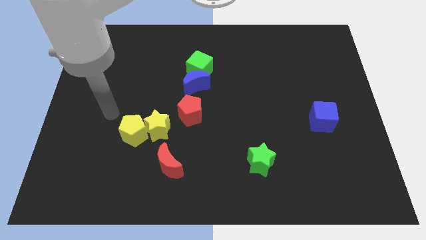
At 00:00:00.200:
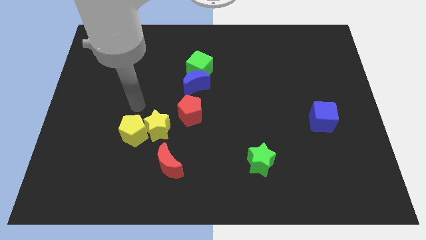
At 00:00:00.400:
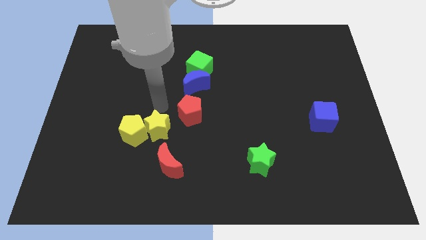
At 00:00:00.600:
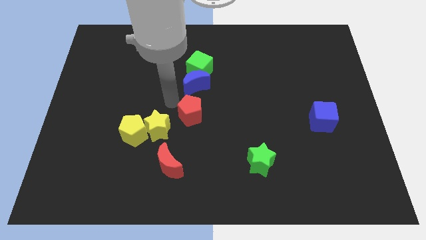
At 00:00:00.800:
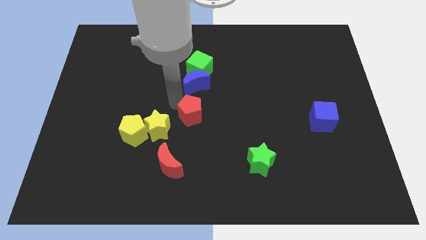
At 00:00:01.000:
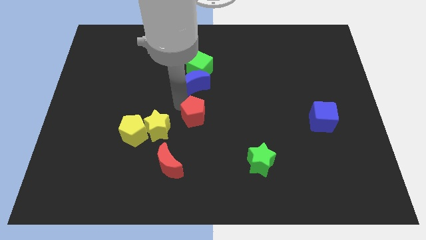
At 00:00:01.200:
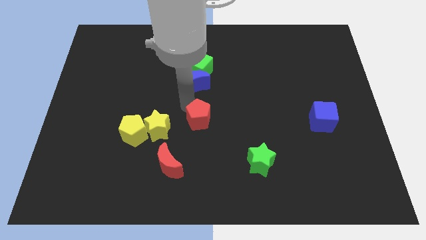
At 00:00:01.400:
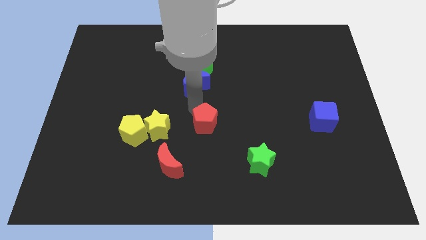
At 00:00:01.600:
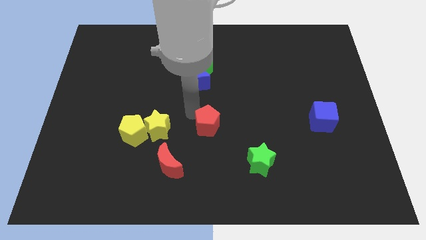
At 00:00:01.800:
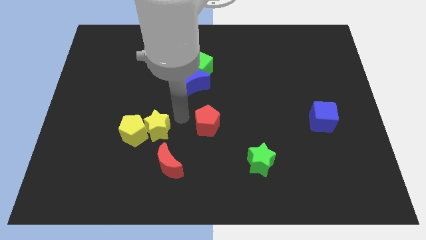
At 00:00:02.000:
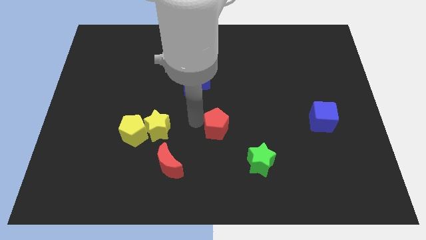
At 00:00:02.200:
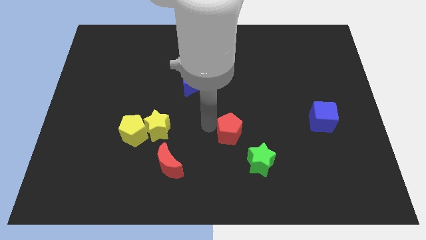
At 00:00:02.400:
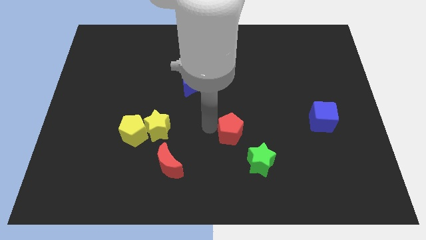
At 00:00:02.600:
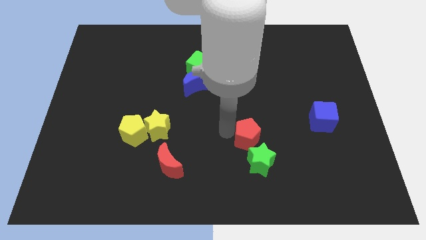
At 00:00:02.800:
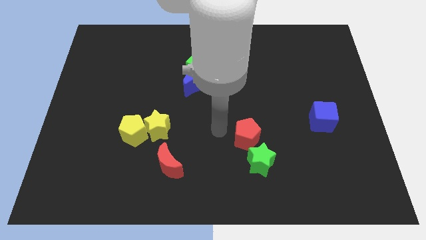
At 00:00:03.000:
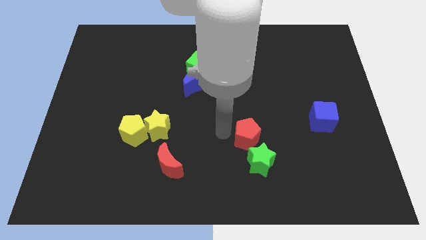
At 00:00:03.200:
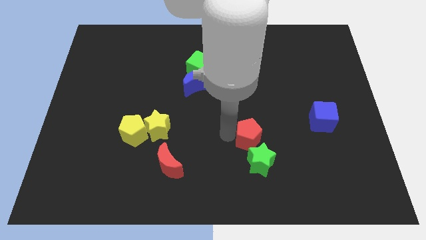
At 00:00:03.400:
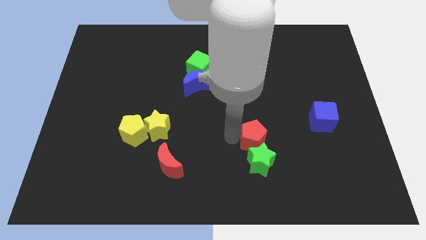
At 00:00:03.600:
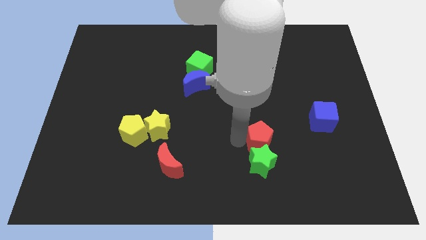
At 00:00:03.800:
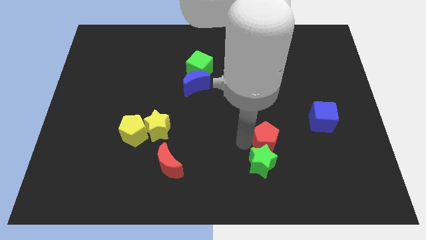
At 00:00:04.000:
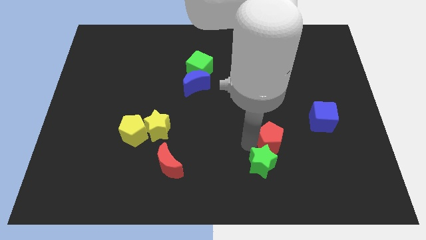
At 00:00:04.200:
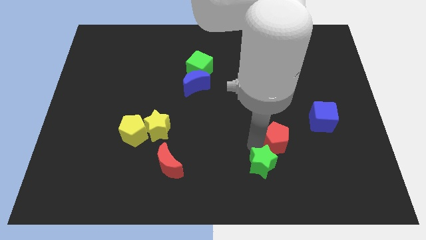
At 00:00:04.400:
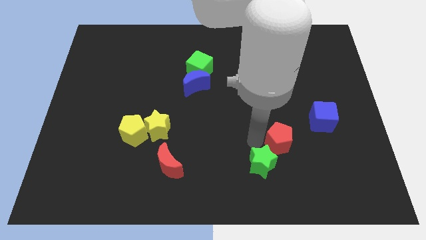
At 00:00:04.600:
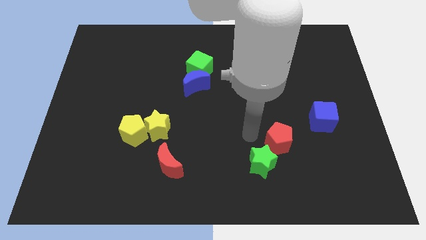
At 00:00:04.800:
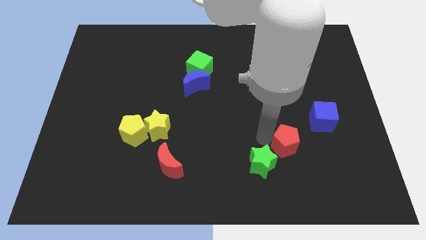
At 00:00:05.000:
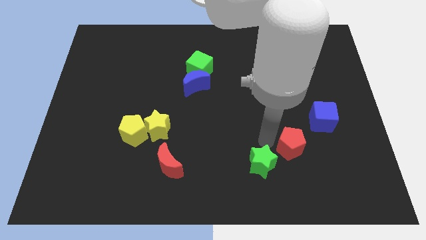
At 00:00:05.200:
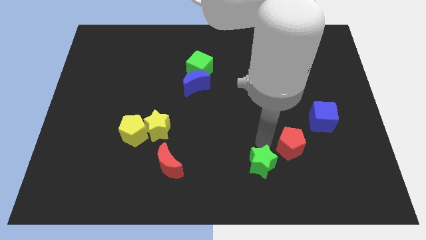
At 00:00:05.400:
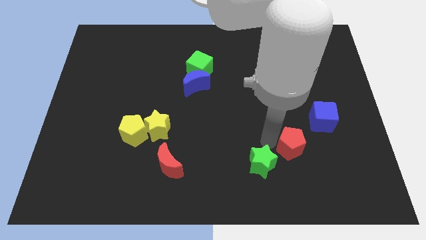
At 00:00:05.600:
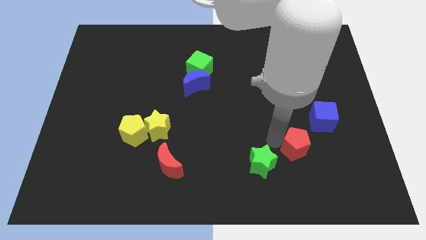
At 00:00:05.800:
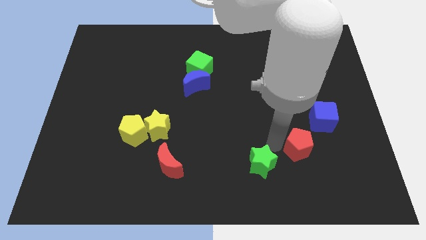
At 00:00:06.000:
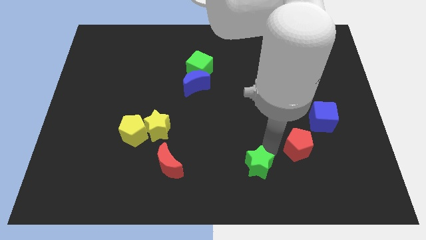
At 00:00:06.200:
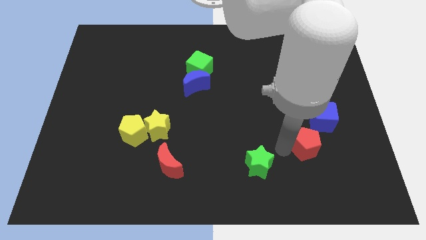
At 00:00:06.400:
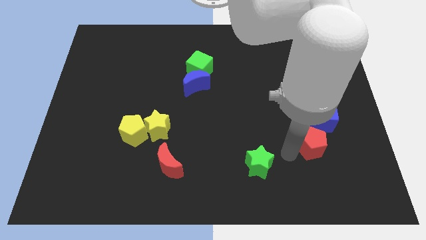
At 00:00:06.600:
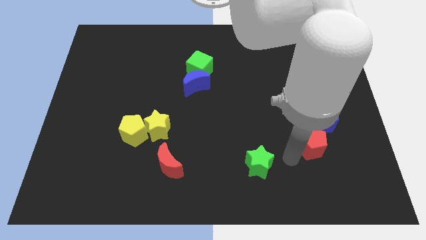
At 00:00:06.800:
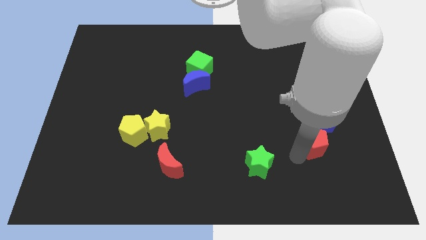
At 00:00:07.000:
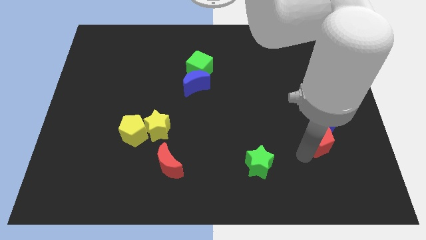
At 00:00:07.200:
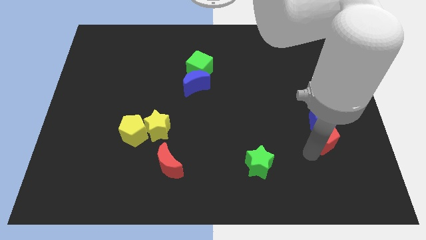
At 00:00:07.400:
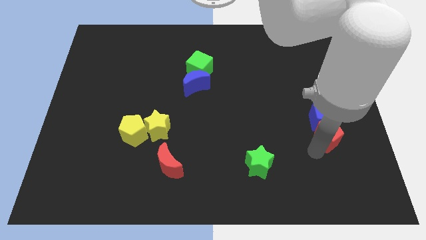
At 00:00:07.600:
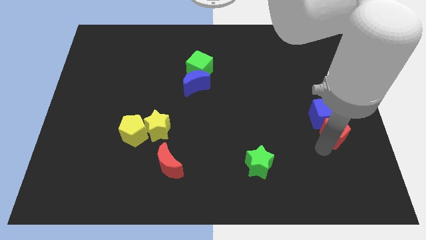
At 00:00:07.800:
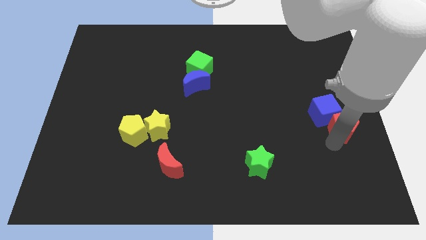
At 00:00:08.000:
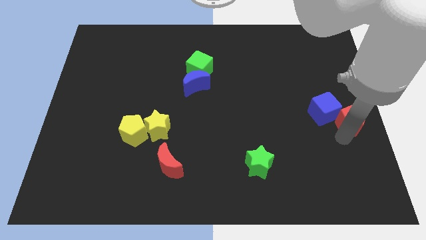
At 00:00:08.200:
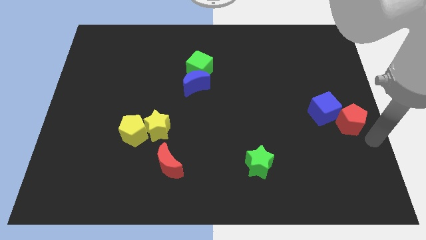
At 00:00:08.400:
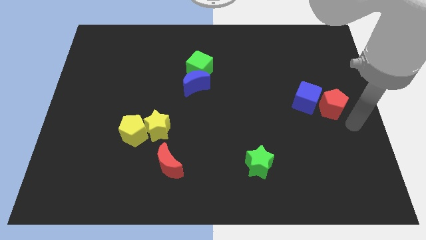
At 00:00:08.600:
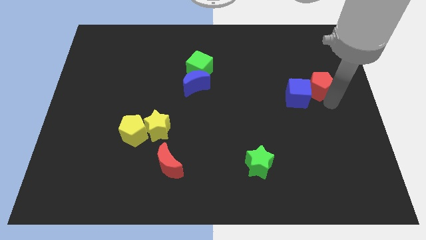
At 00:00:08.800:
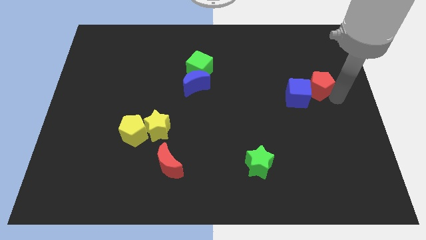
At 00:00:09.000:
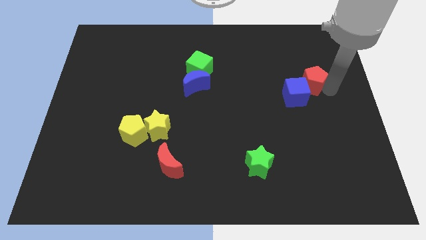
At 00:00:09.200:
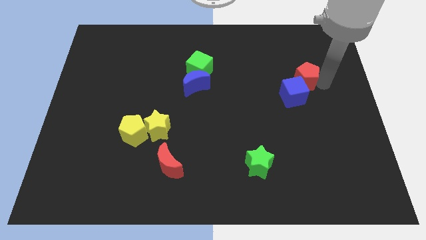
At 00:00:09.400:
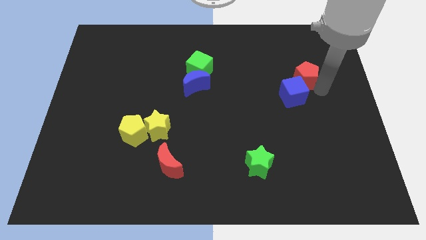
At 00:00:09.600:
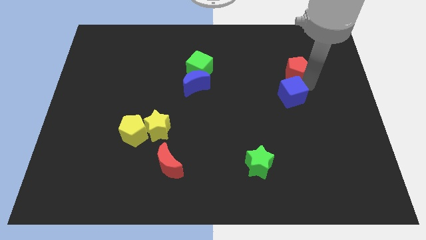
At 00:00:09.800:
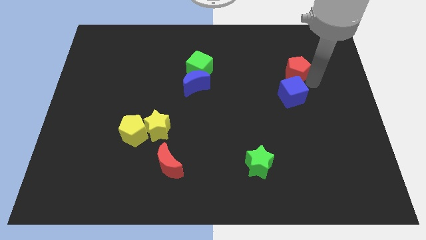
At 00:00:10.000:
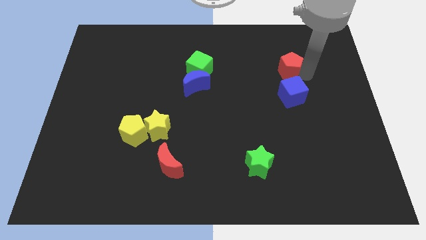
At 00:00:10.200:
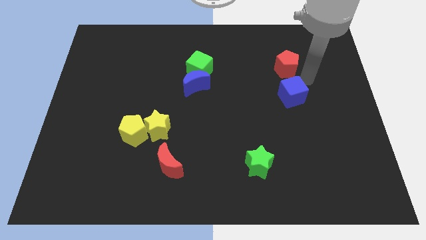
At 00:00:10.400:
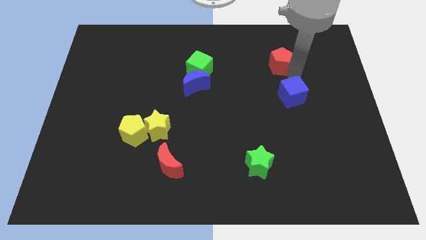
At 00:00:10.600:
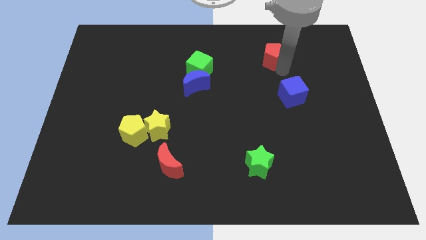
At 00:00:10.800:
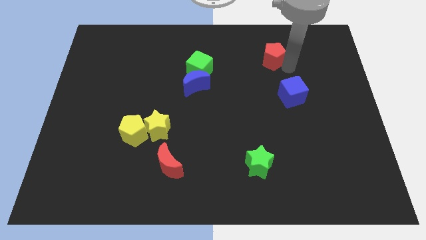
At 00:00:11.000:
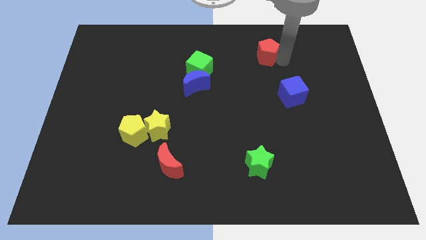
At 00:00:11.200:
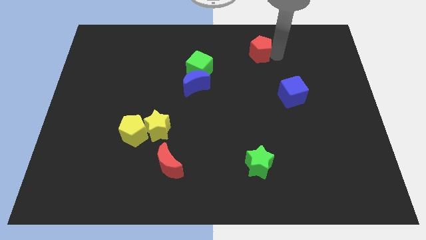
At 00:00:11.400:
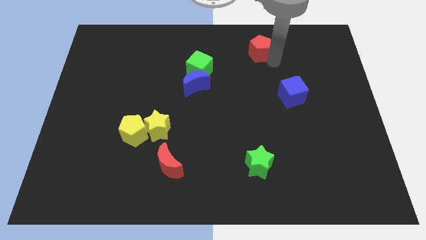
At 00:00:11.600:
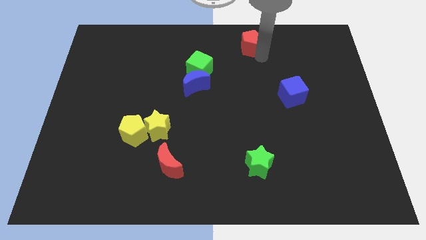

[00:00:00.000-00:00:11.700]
move the red pentagon to the towards your base

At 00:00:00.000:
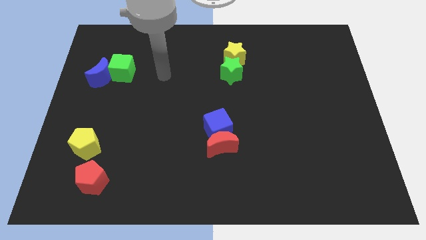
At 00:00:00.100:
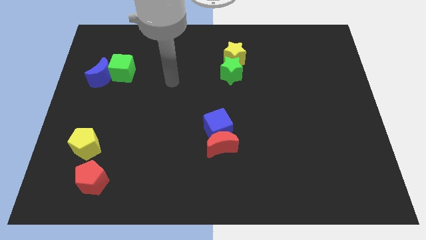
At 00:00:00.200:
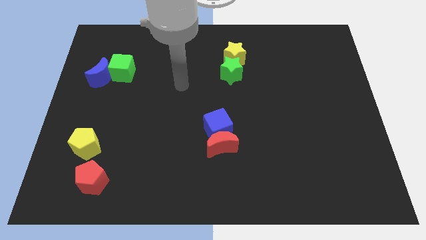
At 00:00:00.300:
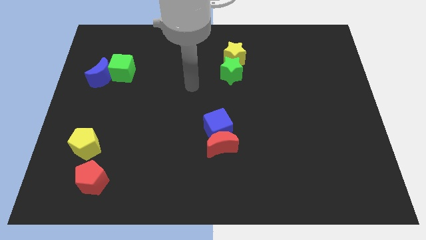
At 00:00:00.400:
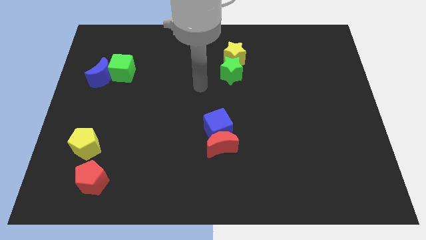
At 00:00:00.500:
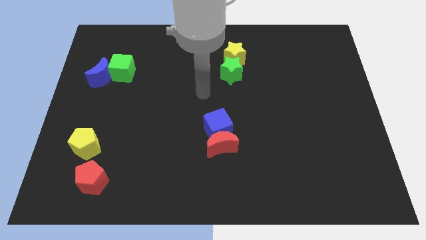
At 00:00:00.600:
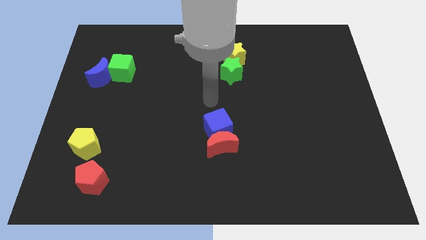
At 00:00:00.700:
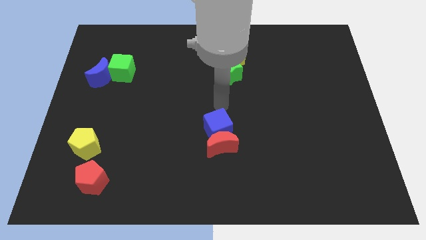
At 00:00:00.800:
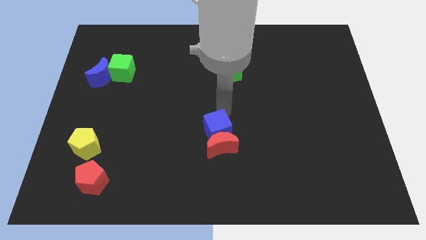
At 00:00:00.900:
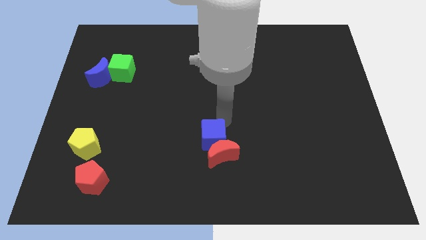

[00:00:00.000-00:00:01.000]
put the red moon to the bottom
